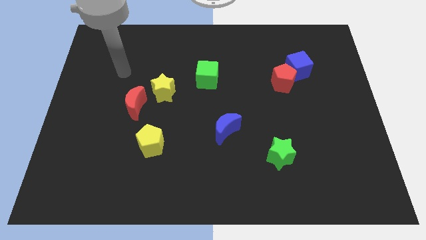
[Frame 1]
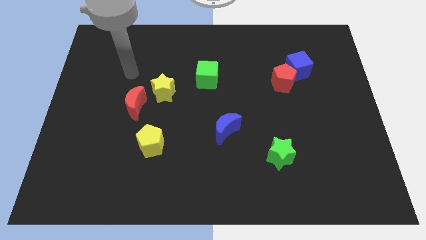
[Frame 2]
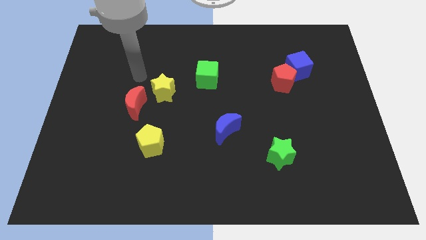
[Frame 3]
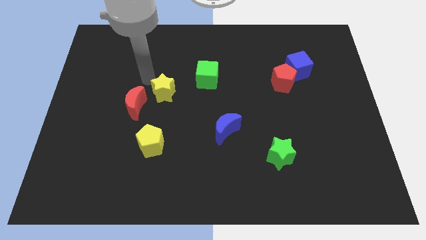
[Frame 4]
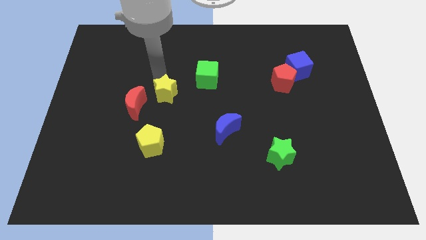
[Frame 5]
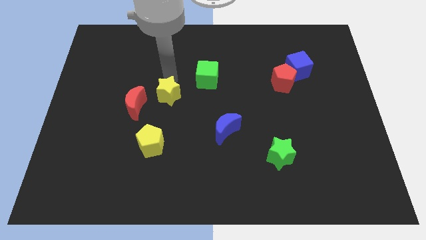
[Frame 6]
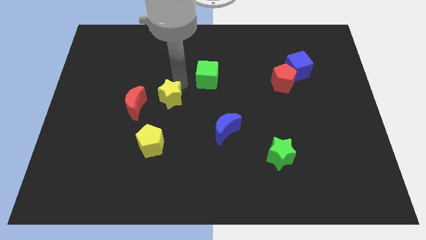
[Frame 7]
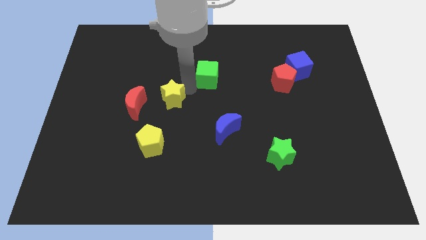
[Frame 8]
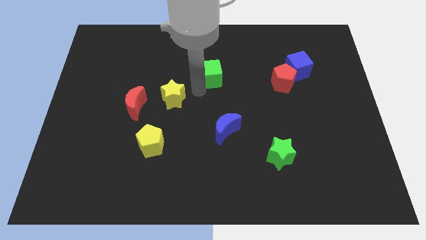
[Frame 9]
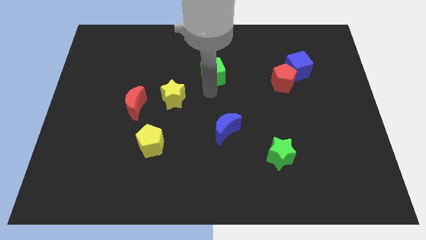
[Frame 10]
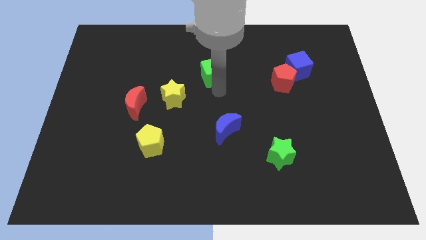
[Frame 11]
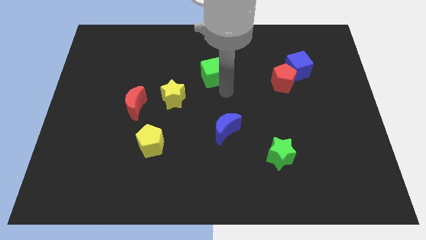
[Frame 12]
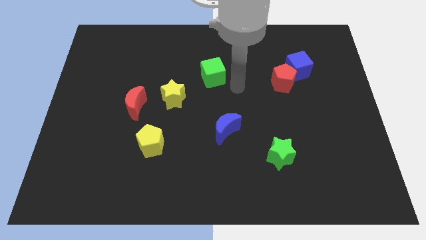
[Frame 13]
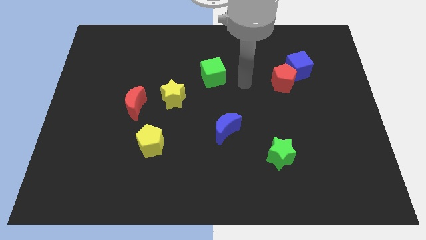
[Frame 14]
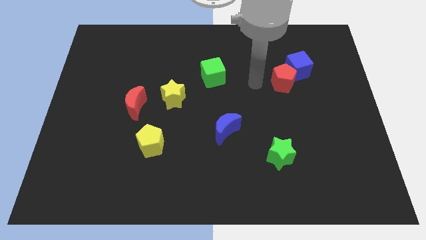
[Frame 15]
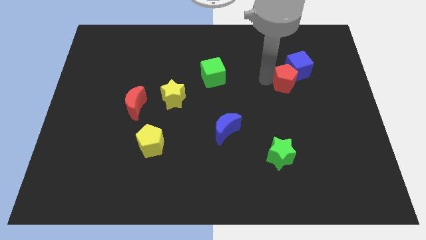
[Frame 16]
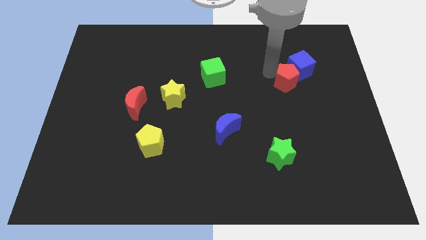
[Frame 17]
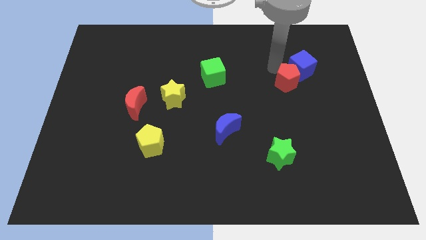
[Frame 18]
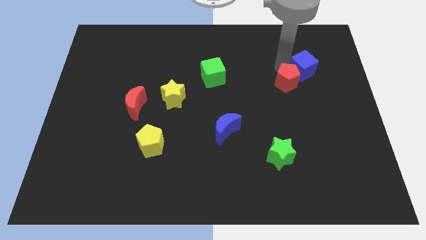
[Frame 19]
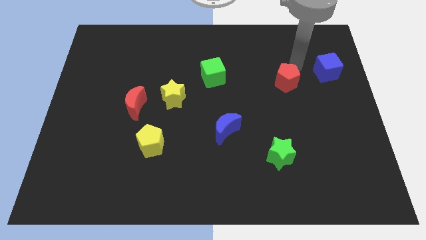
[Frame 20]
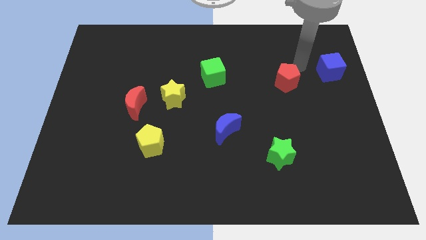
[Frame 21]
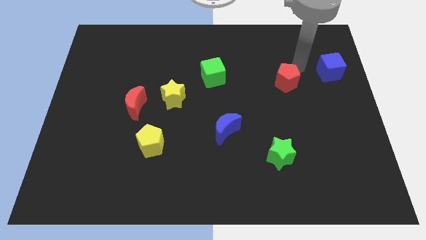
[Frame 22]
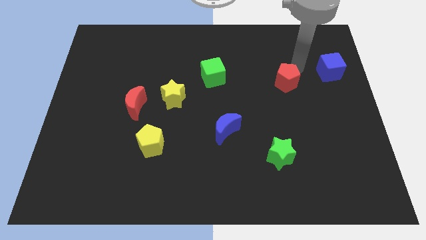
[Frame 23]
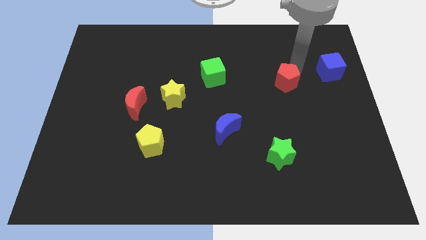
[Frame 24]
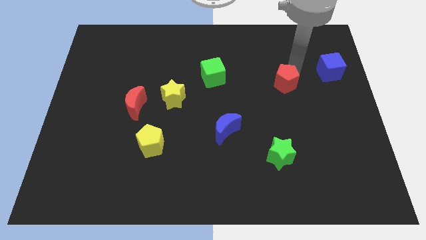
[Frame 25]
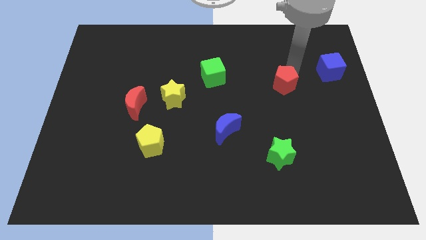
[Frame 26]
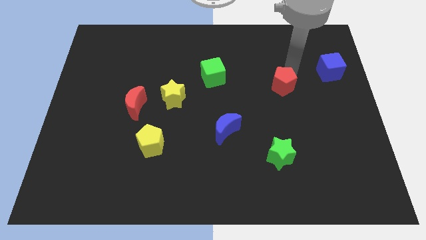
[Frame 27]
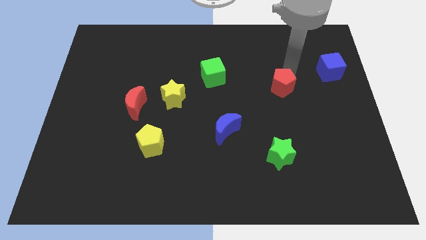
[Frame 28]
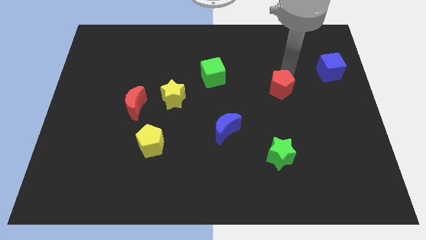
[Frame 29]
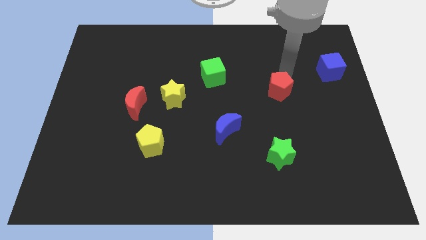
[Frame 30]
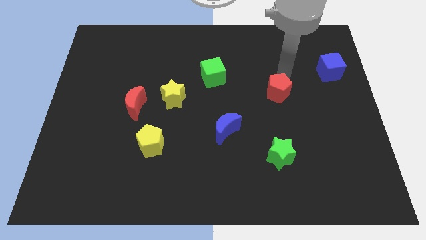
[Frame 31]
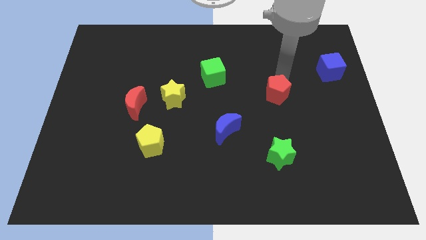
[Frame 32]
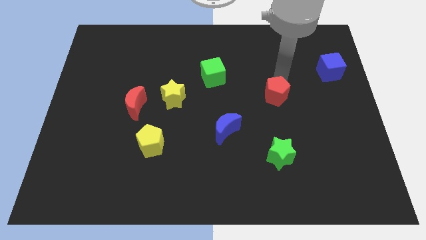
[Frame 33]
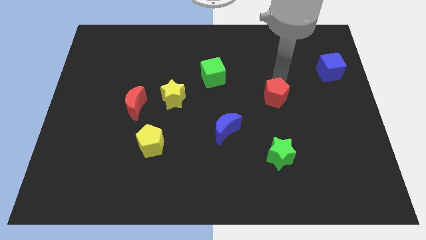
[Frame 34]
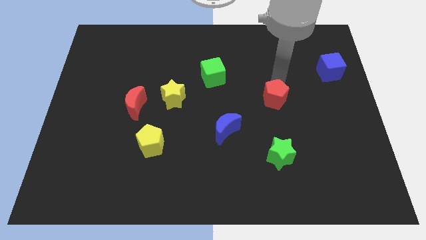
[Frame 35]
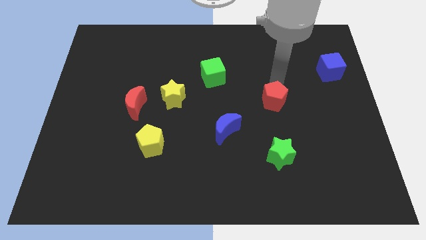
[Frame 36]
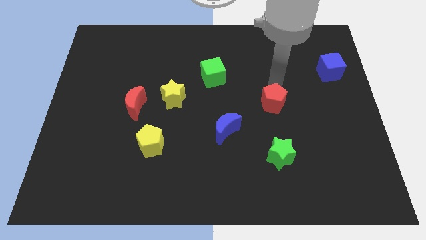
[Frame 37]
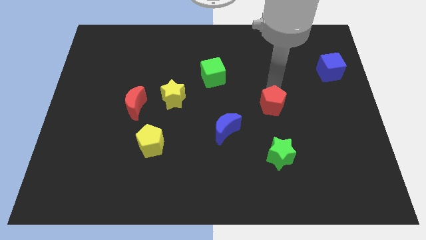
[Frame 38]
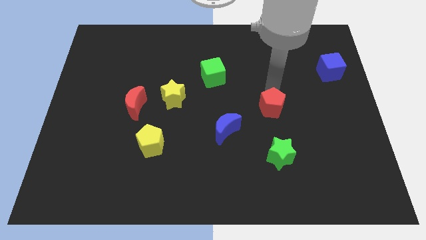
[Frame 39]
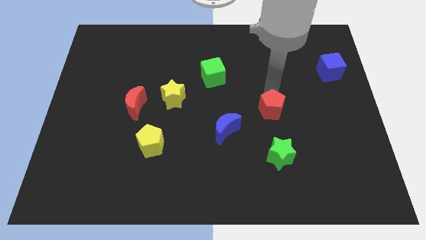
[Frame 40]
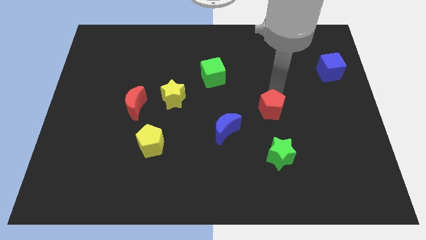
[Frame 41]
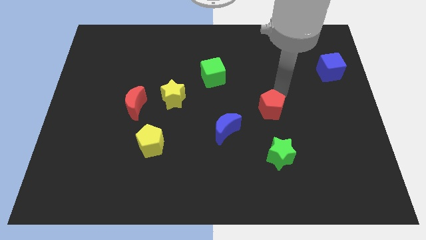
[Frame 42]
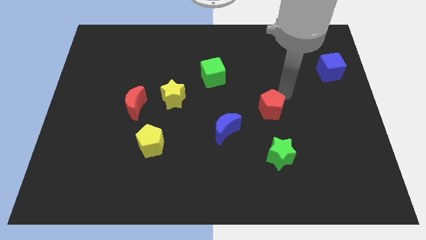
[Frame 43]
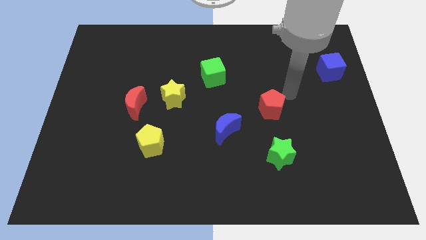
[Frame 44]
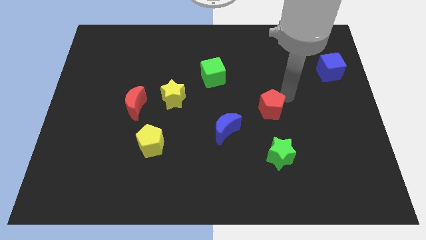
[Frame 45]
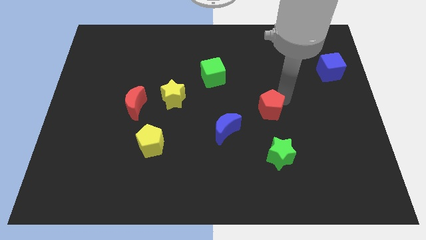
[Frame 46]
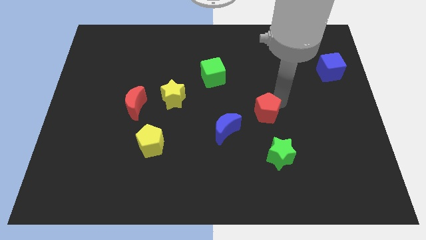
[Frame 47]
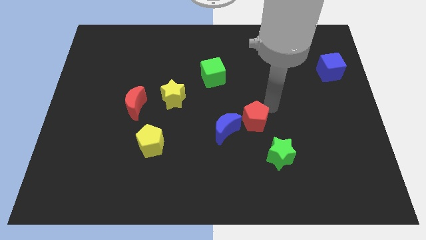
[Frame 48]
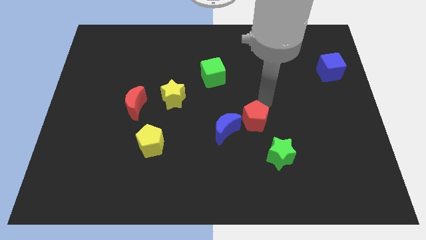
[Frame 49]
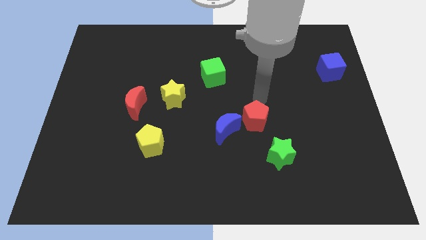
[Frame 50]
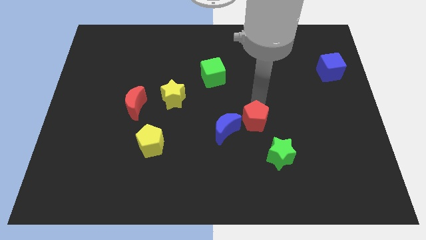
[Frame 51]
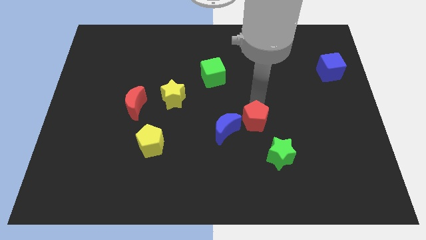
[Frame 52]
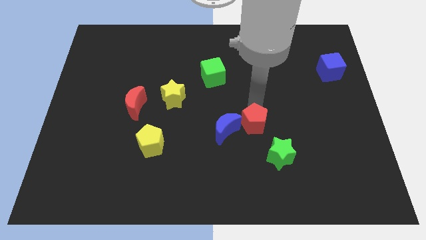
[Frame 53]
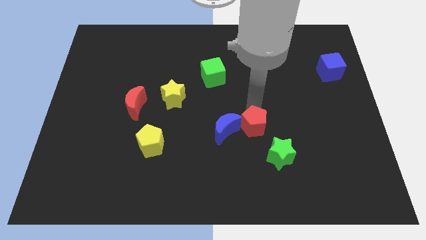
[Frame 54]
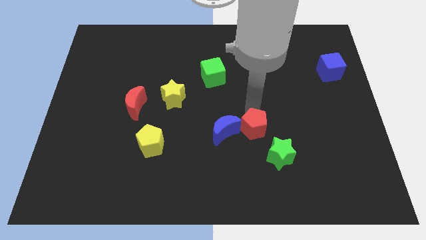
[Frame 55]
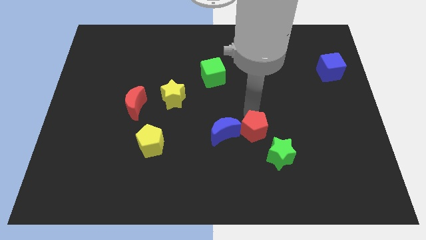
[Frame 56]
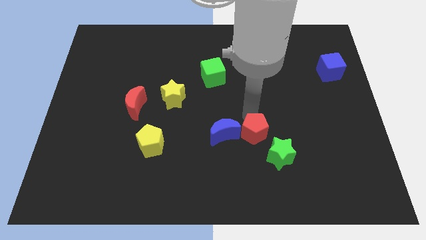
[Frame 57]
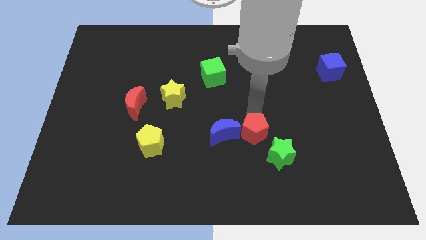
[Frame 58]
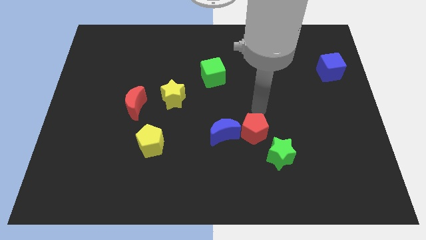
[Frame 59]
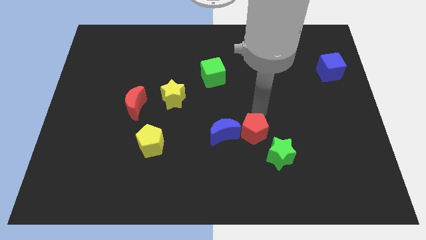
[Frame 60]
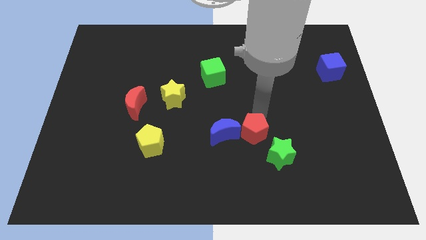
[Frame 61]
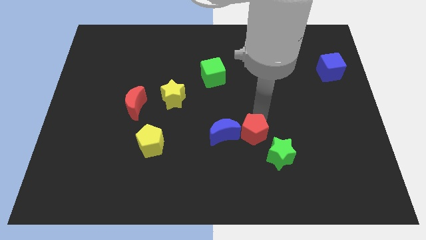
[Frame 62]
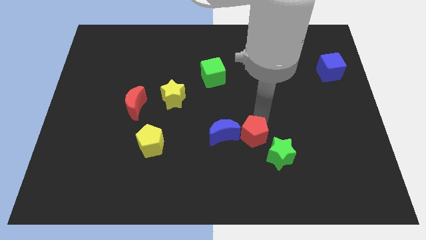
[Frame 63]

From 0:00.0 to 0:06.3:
move the red pentagon to the bottom right side of the blue moon

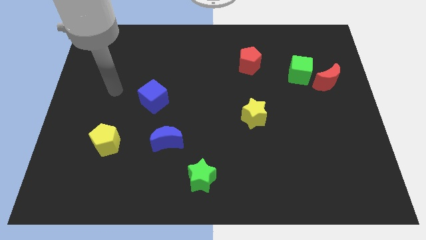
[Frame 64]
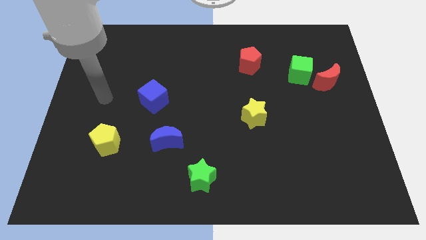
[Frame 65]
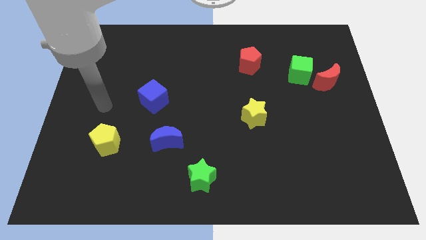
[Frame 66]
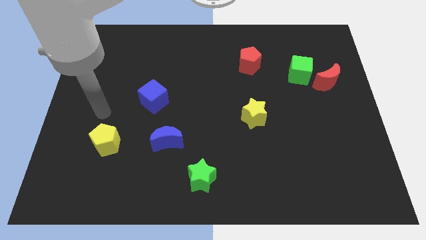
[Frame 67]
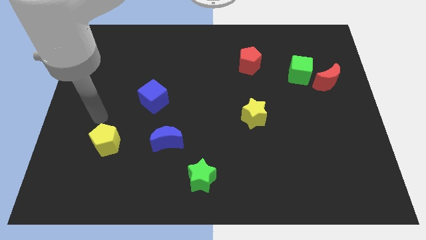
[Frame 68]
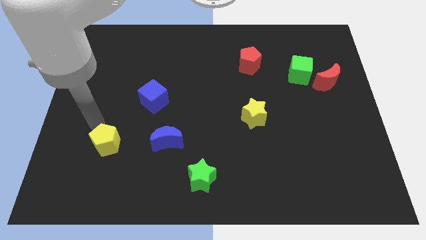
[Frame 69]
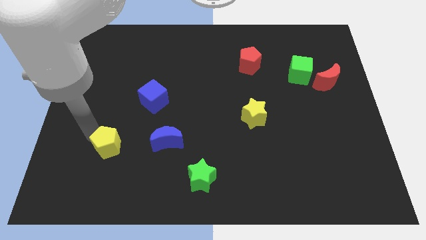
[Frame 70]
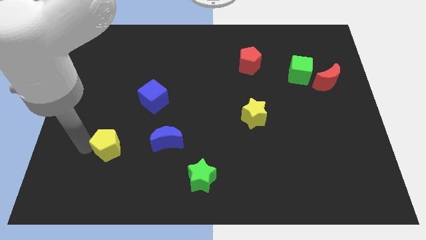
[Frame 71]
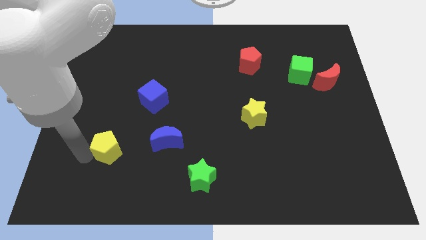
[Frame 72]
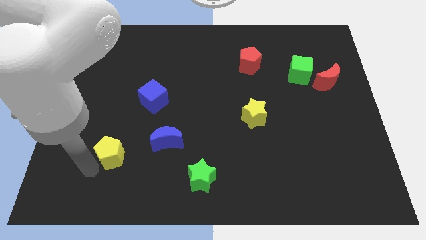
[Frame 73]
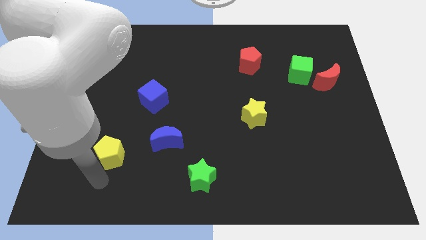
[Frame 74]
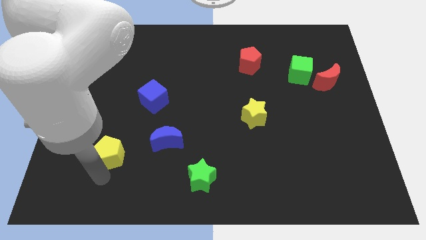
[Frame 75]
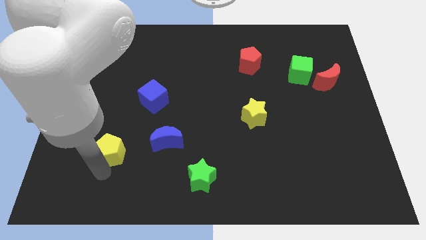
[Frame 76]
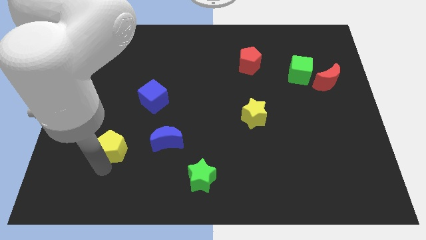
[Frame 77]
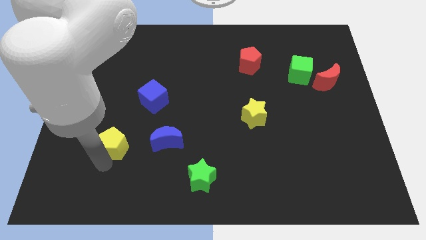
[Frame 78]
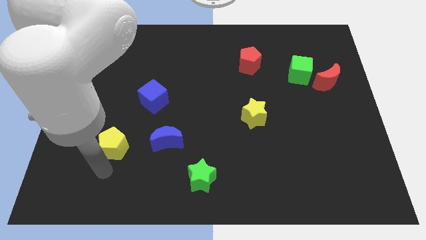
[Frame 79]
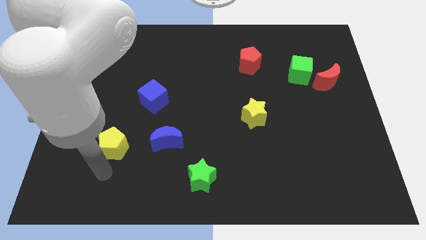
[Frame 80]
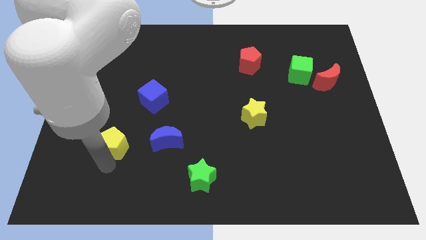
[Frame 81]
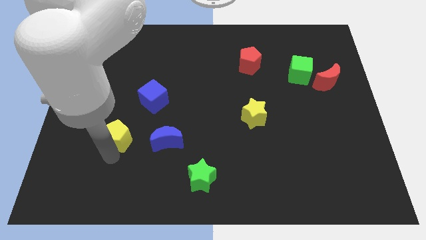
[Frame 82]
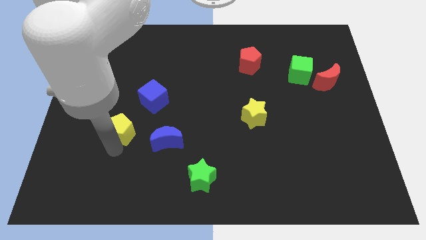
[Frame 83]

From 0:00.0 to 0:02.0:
slide the yellow pentagon to the bottom left side of the blue cube
